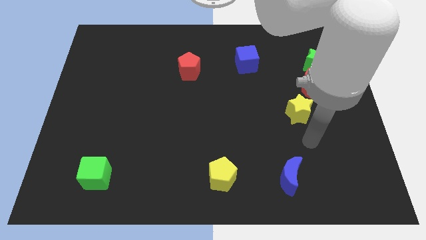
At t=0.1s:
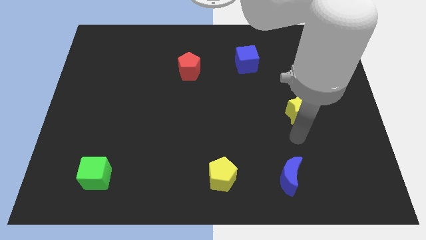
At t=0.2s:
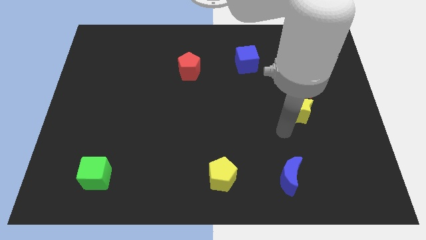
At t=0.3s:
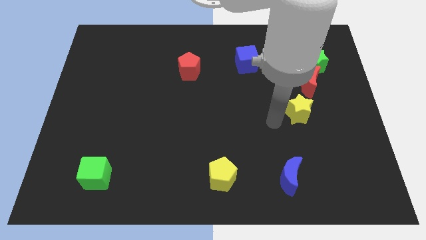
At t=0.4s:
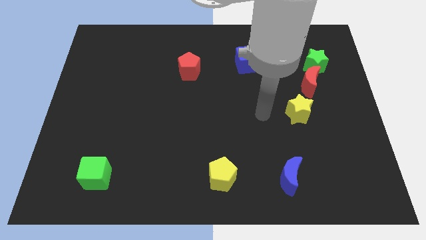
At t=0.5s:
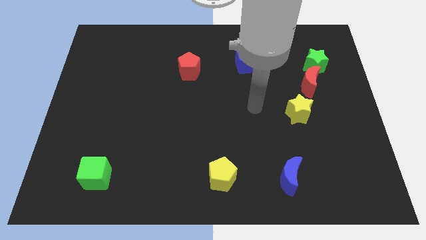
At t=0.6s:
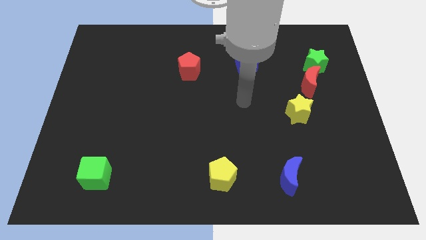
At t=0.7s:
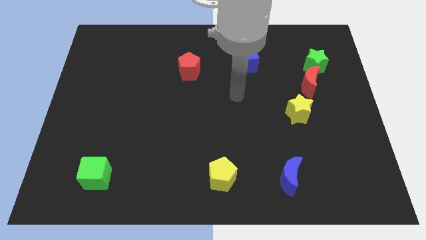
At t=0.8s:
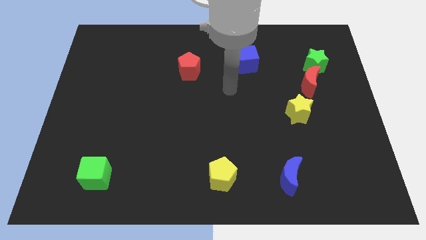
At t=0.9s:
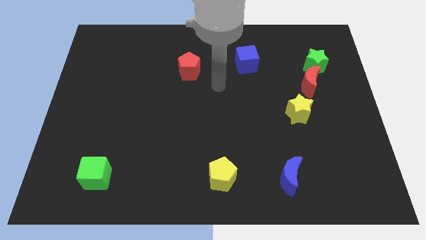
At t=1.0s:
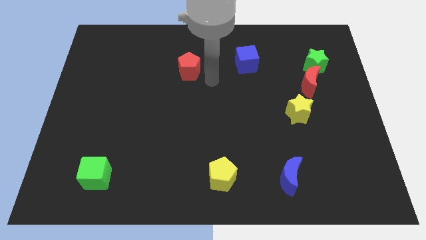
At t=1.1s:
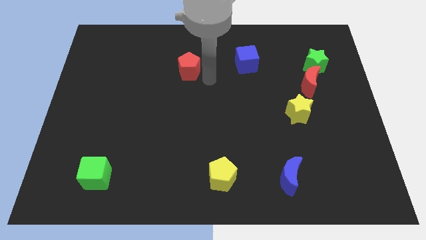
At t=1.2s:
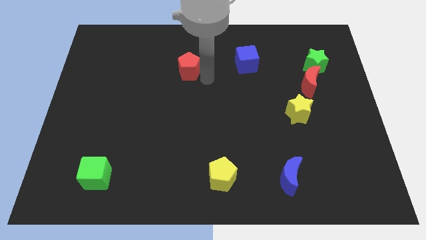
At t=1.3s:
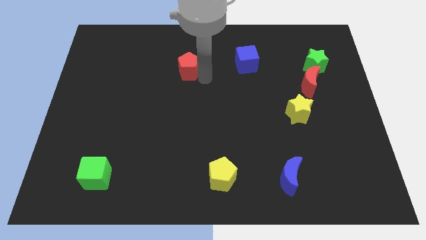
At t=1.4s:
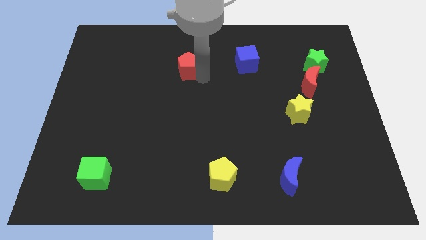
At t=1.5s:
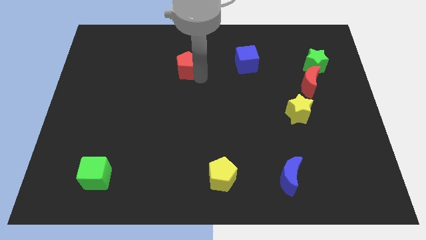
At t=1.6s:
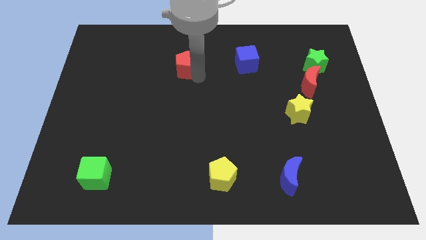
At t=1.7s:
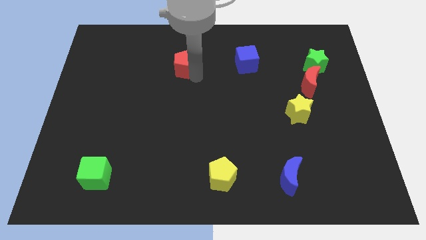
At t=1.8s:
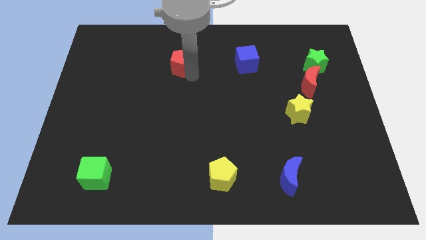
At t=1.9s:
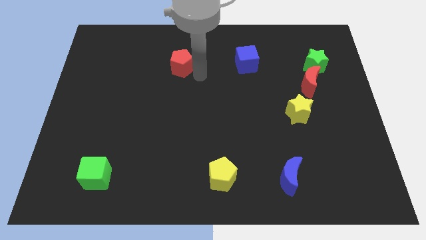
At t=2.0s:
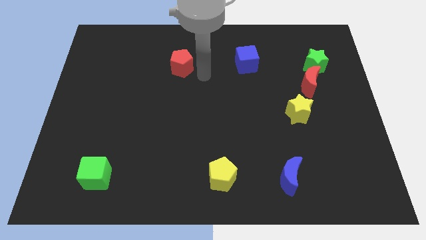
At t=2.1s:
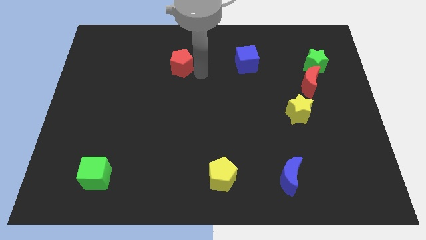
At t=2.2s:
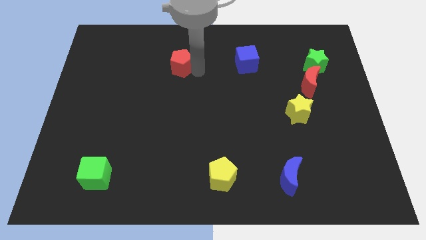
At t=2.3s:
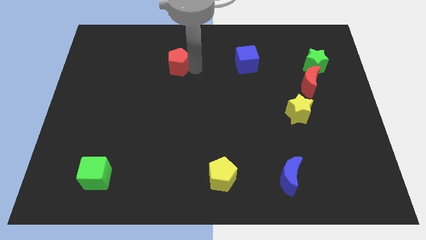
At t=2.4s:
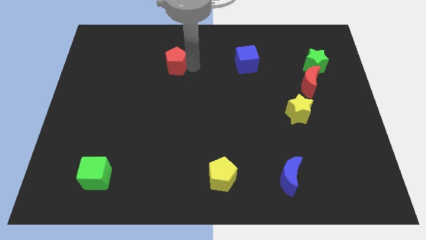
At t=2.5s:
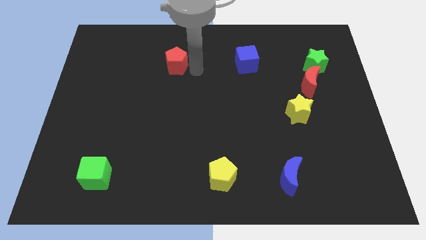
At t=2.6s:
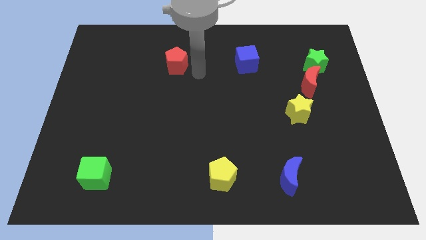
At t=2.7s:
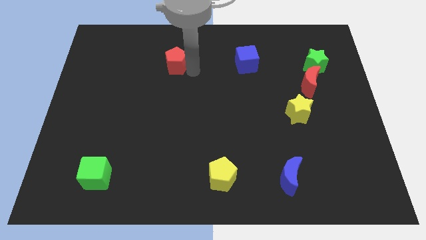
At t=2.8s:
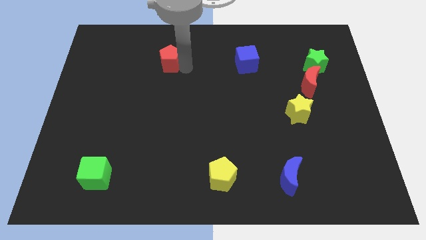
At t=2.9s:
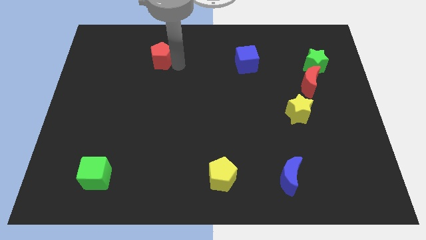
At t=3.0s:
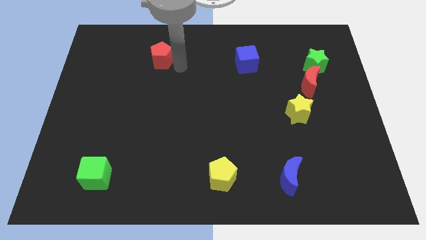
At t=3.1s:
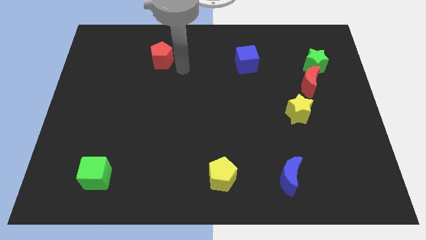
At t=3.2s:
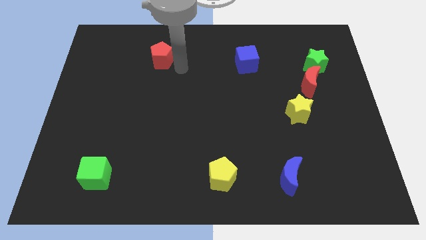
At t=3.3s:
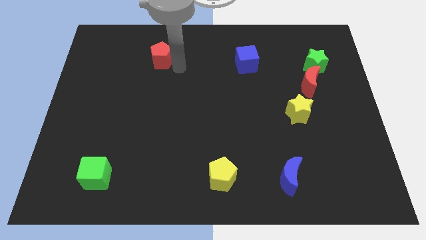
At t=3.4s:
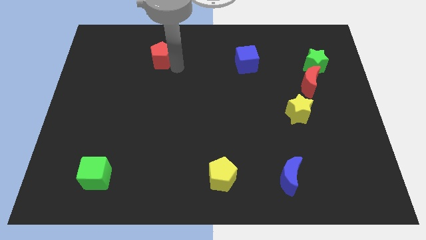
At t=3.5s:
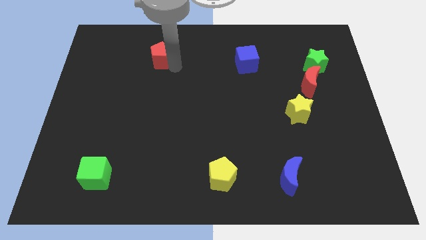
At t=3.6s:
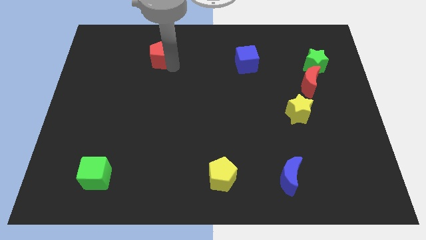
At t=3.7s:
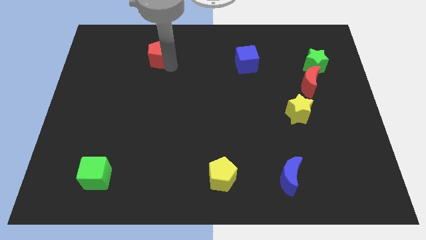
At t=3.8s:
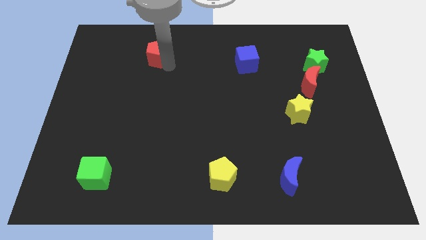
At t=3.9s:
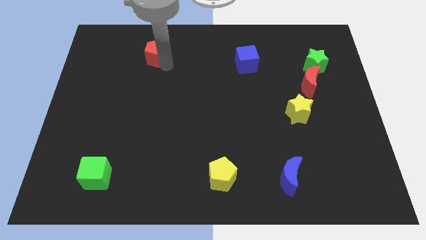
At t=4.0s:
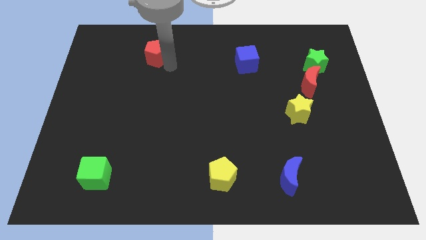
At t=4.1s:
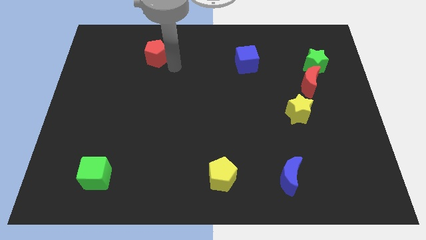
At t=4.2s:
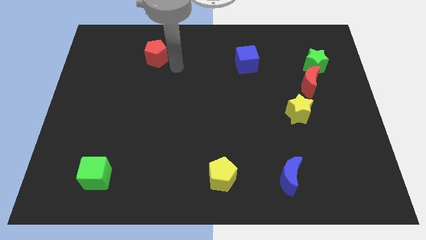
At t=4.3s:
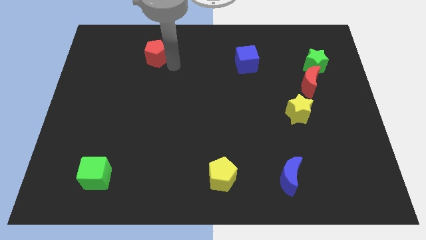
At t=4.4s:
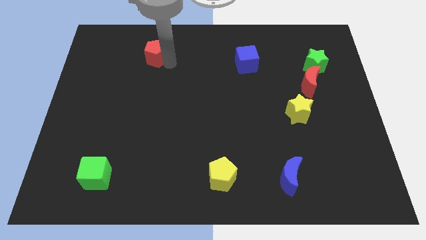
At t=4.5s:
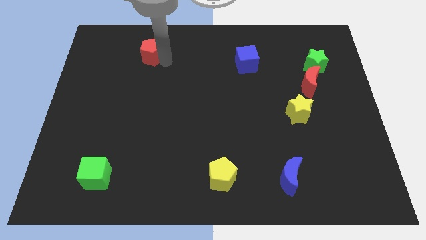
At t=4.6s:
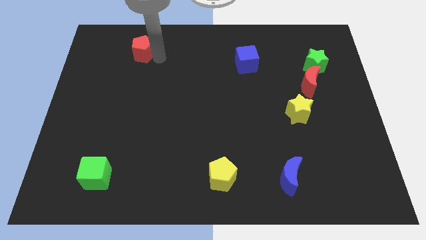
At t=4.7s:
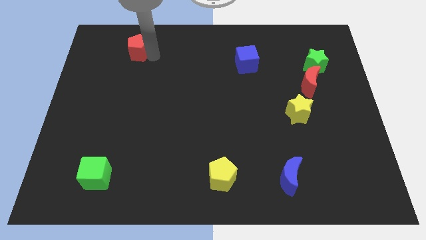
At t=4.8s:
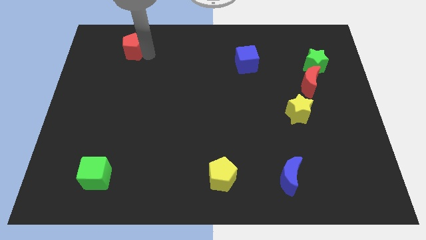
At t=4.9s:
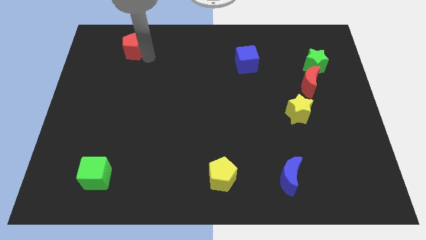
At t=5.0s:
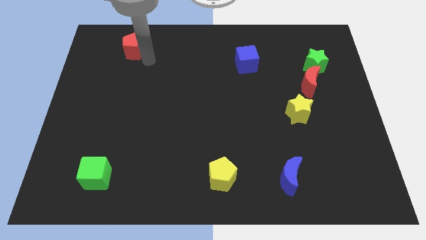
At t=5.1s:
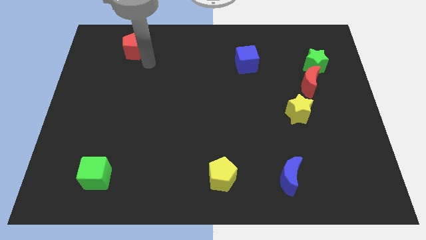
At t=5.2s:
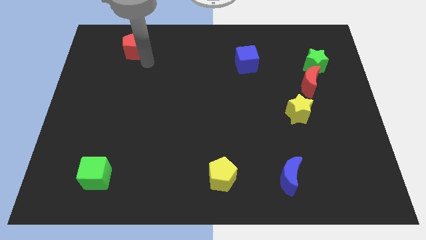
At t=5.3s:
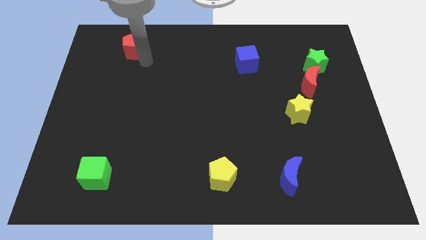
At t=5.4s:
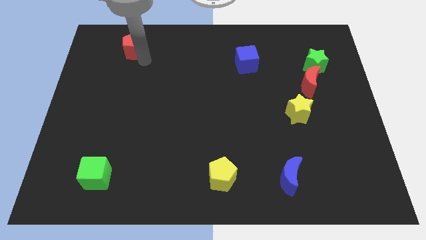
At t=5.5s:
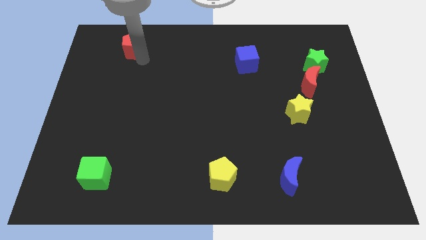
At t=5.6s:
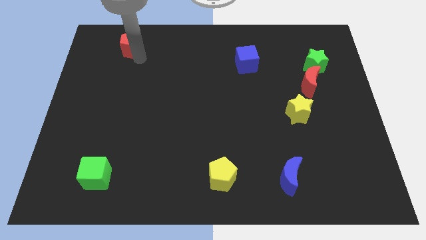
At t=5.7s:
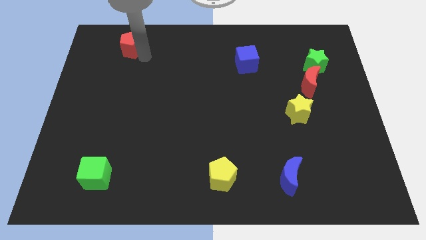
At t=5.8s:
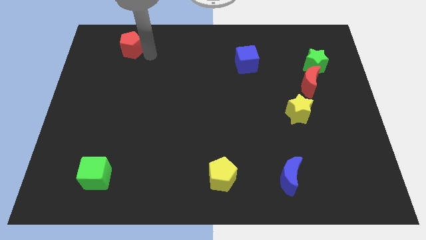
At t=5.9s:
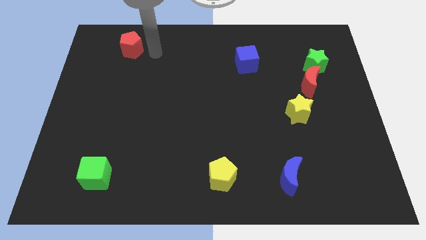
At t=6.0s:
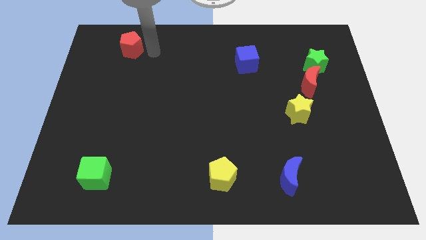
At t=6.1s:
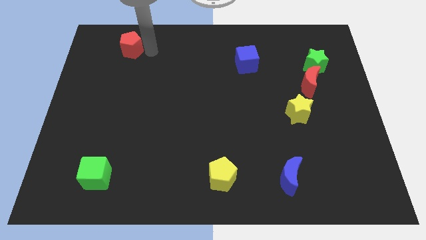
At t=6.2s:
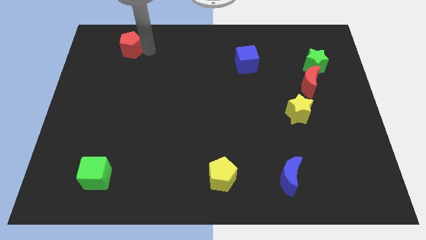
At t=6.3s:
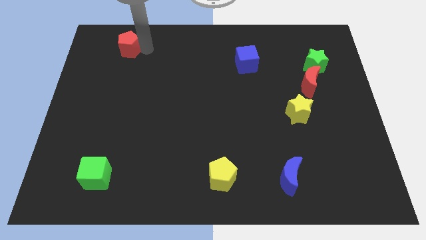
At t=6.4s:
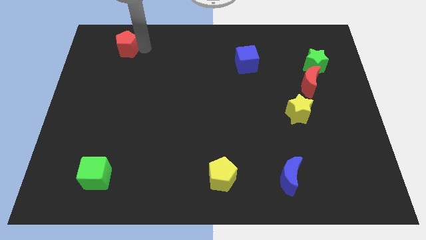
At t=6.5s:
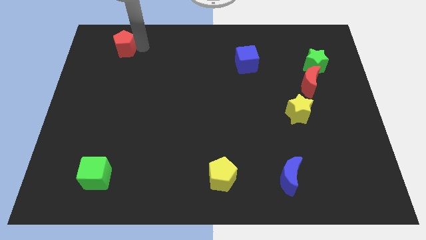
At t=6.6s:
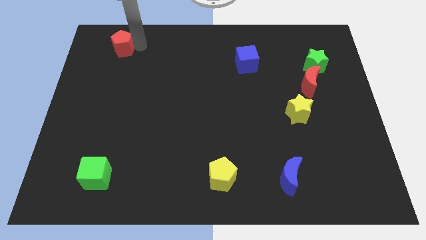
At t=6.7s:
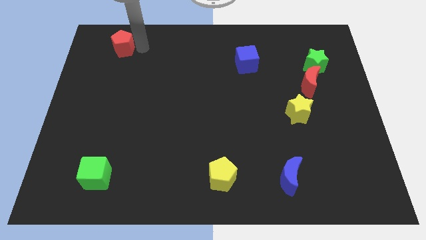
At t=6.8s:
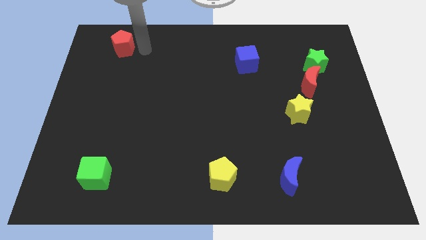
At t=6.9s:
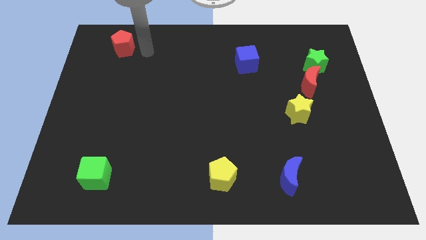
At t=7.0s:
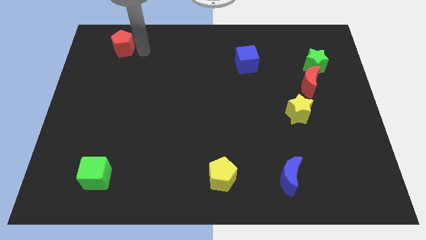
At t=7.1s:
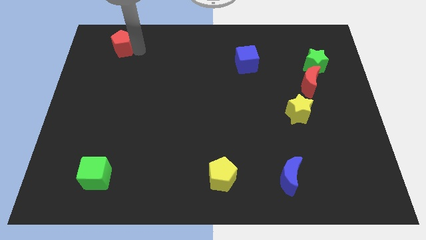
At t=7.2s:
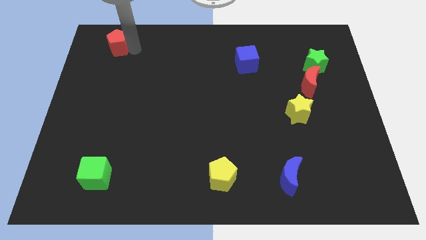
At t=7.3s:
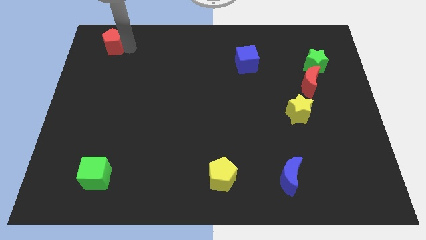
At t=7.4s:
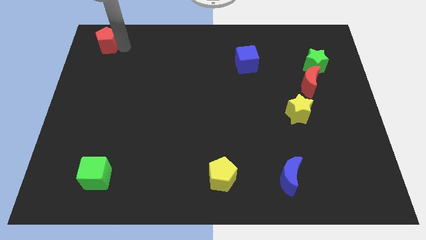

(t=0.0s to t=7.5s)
push the red pentagon to the upper left corner
